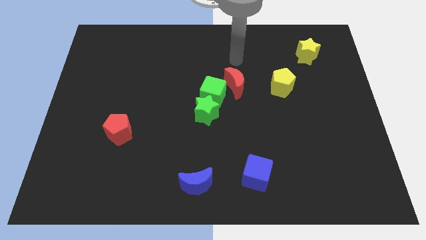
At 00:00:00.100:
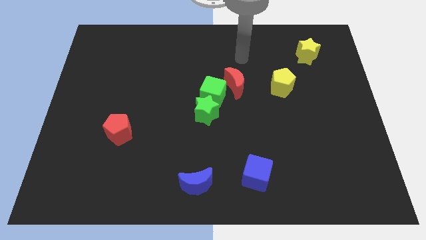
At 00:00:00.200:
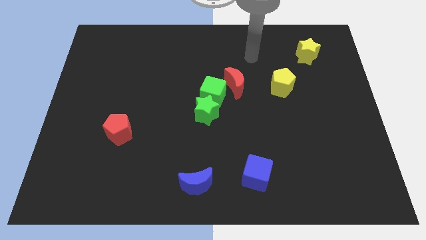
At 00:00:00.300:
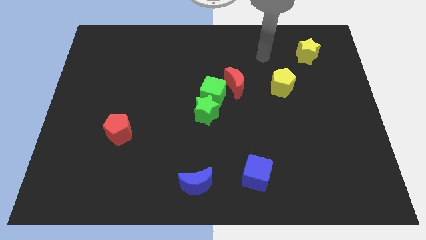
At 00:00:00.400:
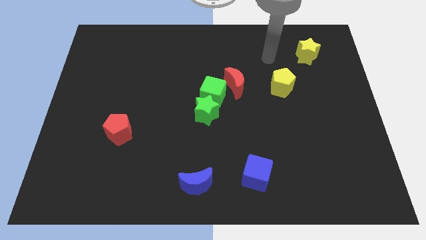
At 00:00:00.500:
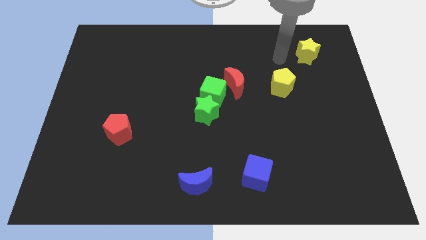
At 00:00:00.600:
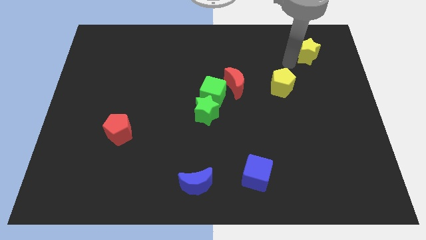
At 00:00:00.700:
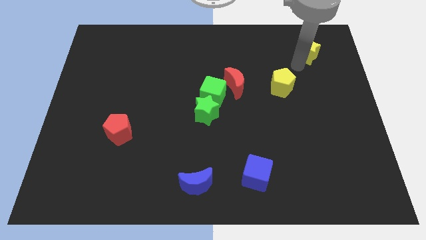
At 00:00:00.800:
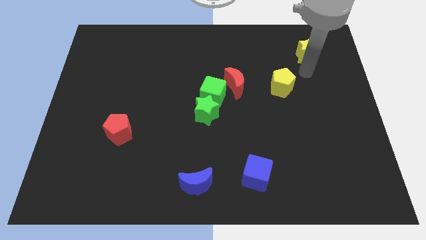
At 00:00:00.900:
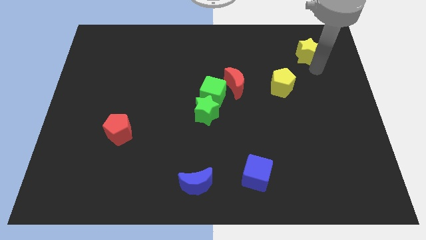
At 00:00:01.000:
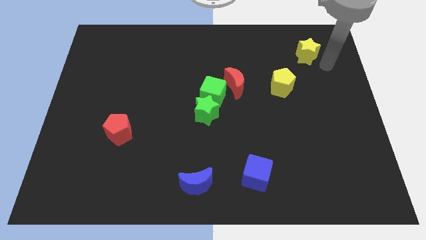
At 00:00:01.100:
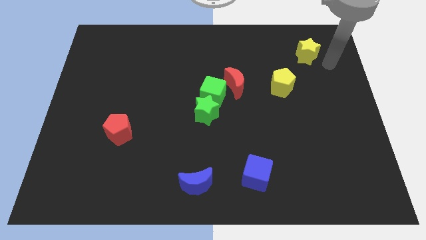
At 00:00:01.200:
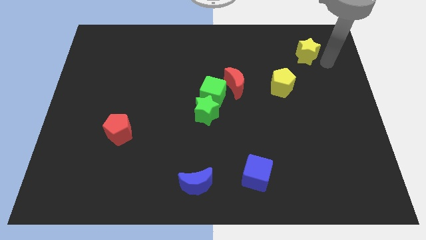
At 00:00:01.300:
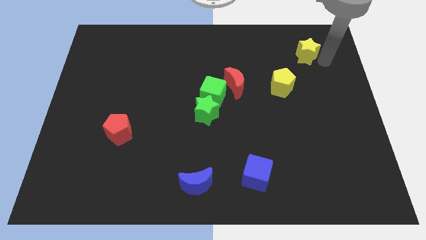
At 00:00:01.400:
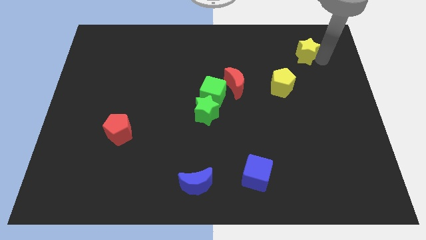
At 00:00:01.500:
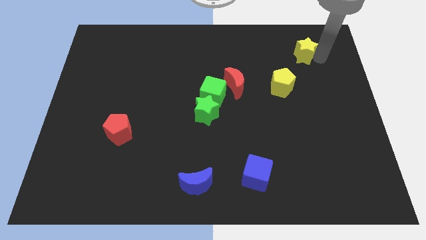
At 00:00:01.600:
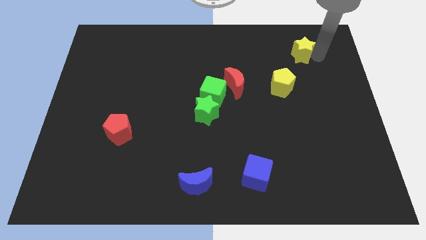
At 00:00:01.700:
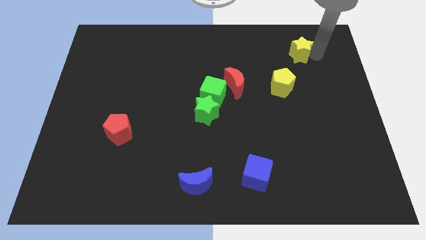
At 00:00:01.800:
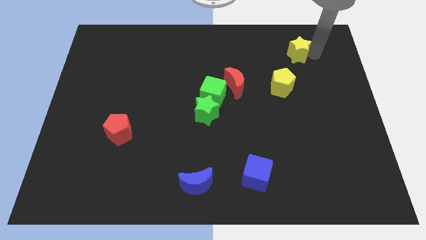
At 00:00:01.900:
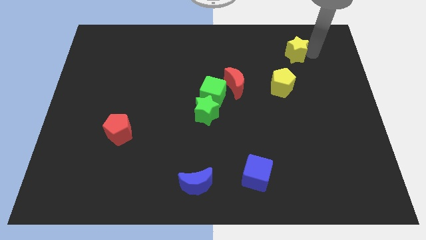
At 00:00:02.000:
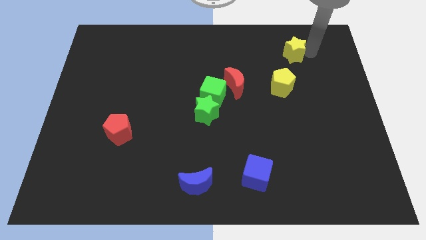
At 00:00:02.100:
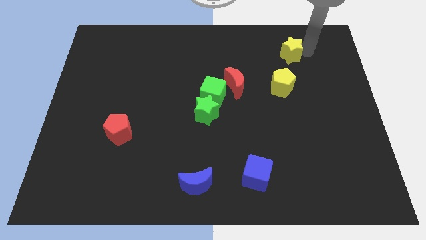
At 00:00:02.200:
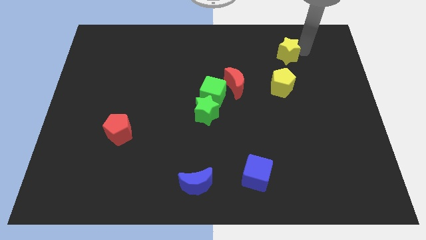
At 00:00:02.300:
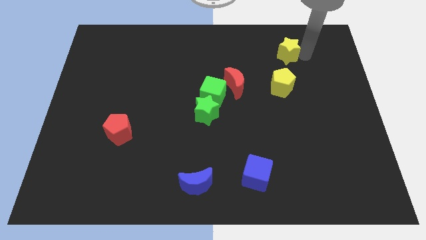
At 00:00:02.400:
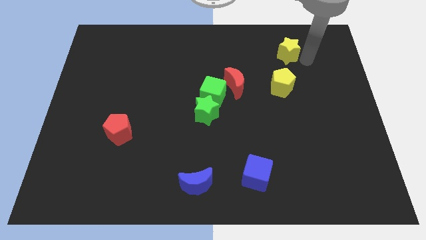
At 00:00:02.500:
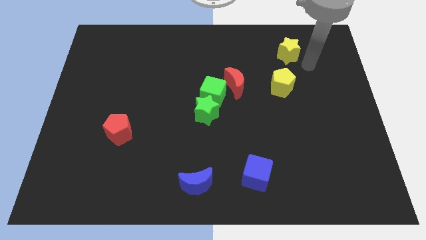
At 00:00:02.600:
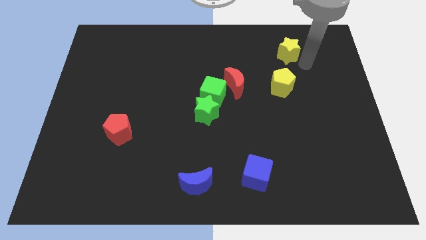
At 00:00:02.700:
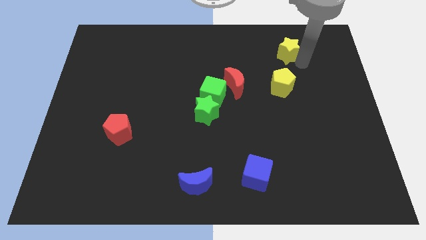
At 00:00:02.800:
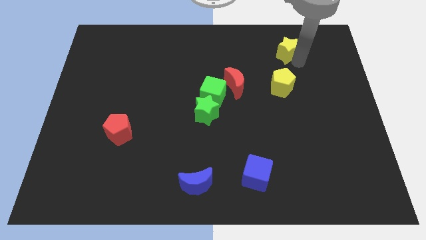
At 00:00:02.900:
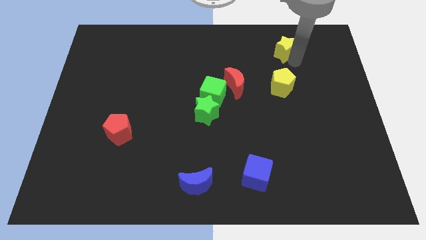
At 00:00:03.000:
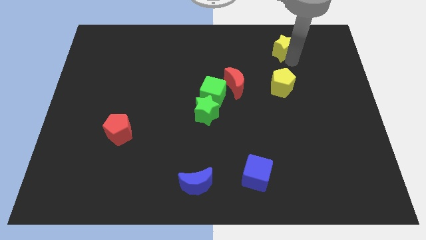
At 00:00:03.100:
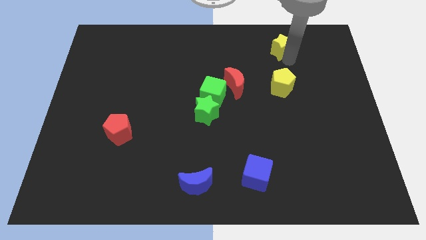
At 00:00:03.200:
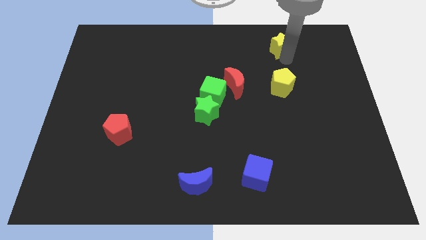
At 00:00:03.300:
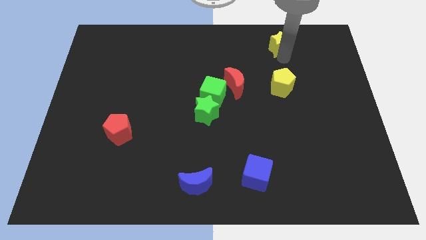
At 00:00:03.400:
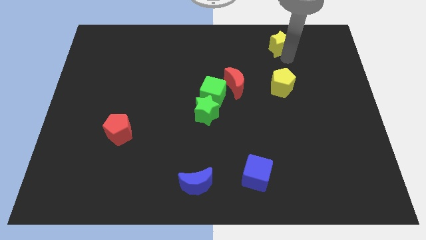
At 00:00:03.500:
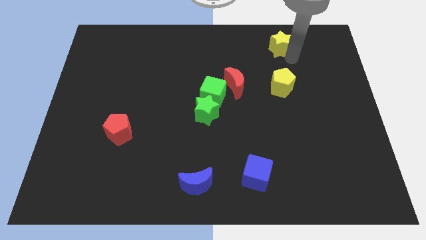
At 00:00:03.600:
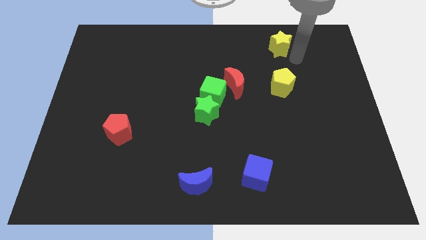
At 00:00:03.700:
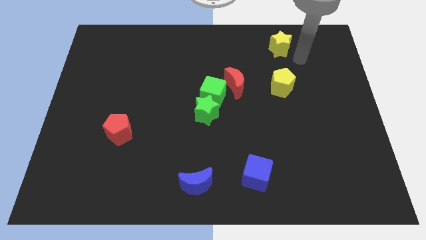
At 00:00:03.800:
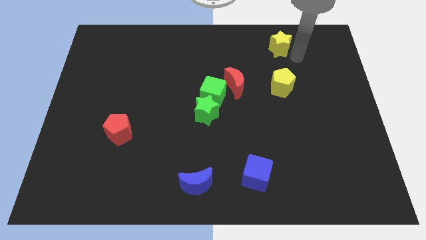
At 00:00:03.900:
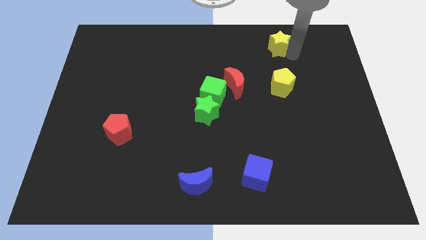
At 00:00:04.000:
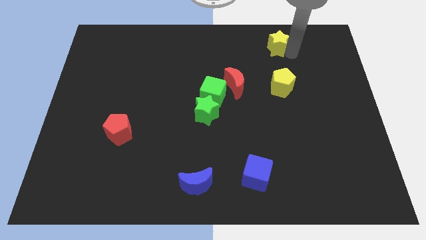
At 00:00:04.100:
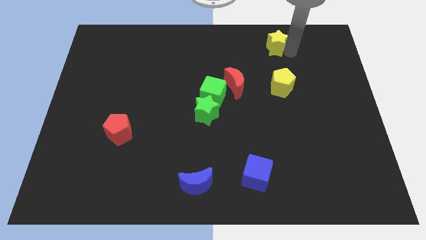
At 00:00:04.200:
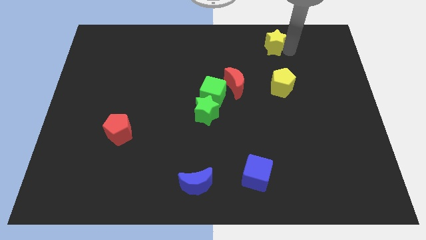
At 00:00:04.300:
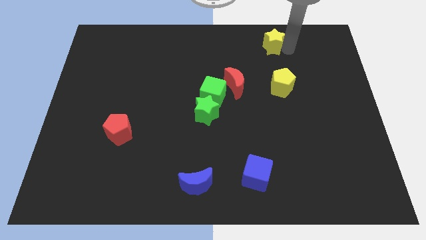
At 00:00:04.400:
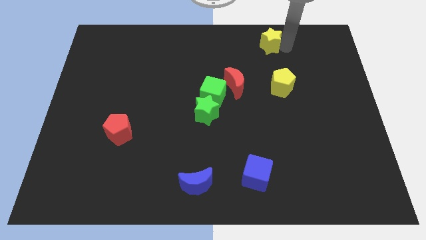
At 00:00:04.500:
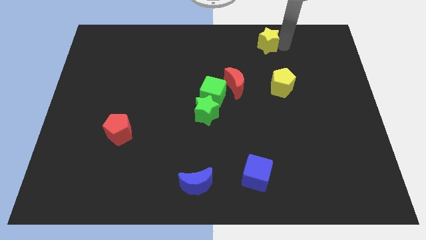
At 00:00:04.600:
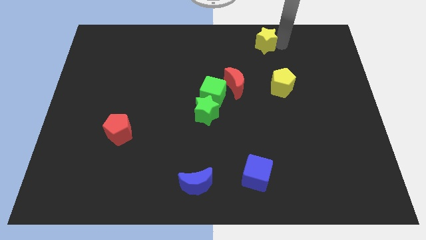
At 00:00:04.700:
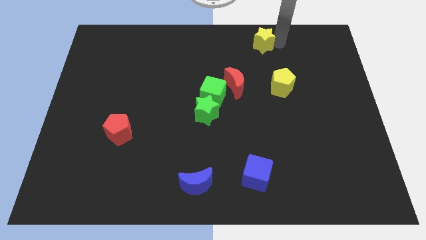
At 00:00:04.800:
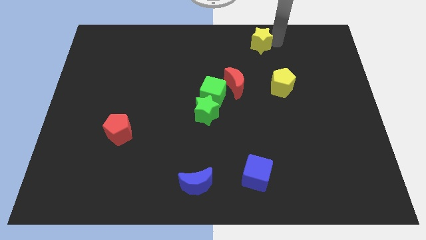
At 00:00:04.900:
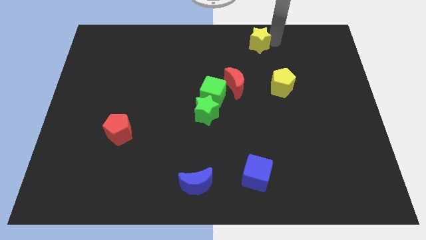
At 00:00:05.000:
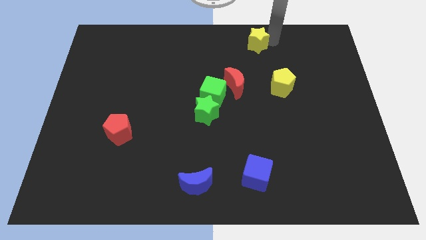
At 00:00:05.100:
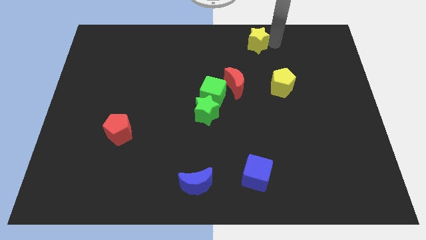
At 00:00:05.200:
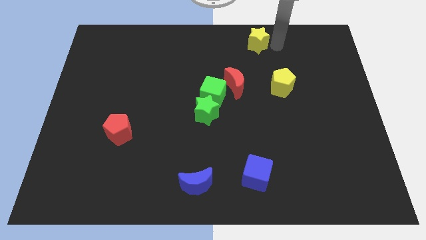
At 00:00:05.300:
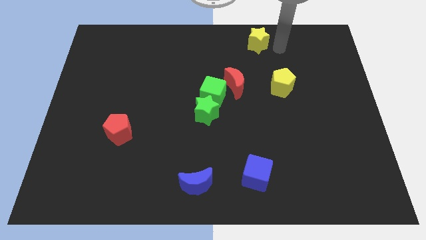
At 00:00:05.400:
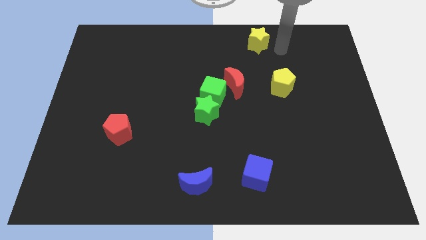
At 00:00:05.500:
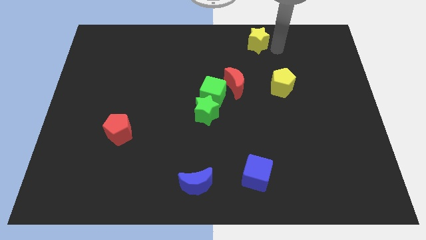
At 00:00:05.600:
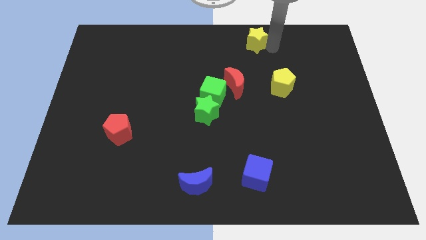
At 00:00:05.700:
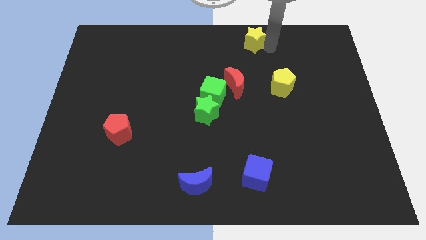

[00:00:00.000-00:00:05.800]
push the yellow star to the top
